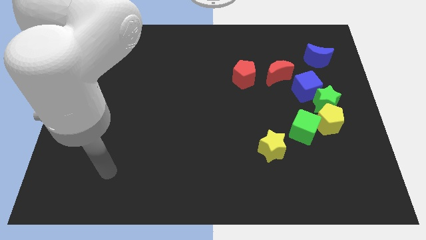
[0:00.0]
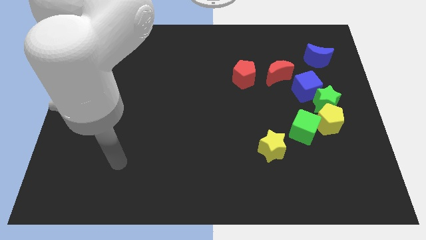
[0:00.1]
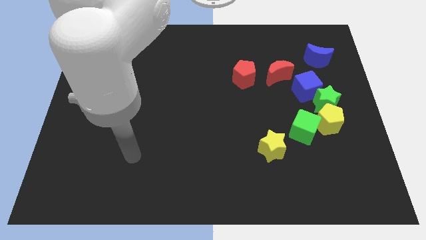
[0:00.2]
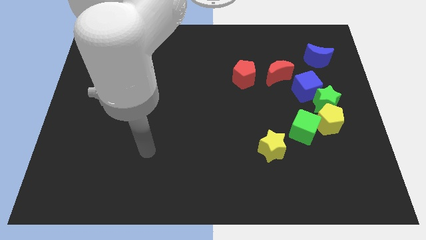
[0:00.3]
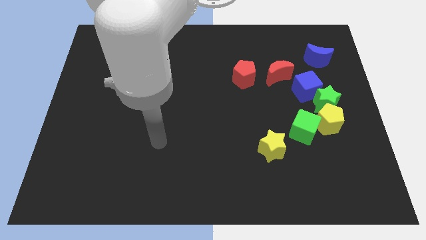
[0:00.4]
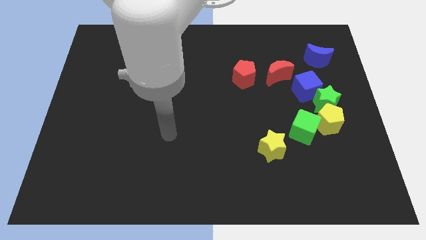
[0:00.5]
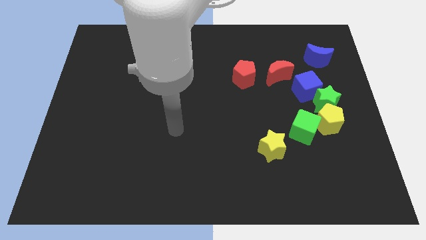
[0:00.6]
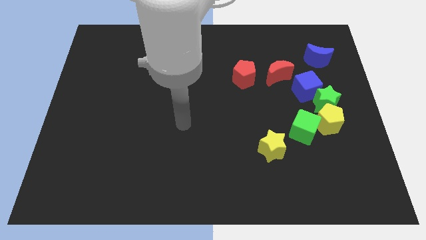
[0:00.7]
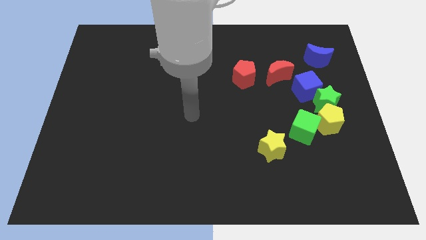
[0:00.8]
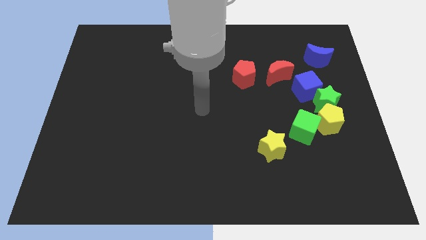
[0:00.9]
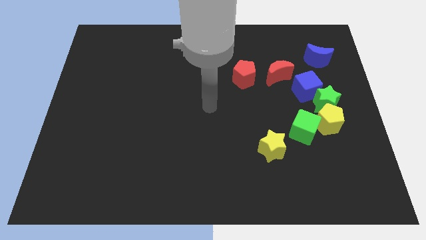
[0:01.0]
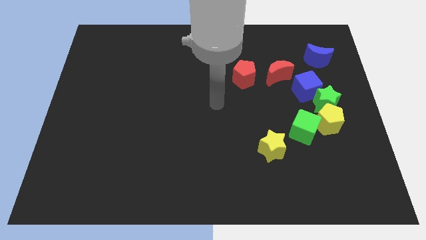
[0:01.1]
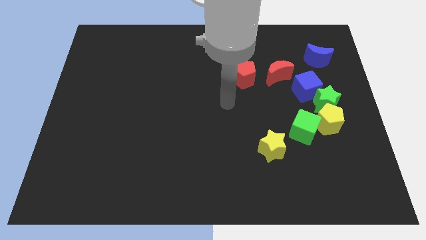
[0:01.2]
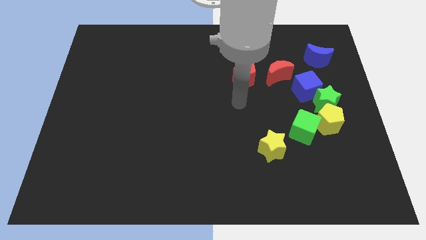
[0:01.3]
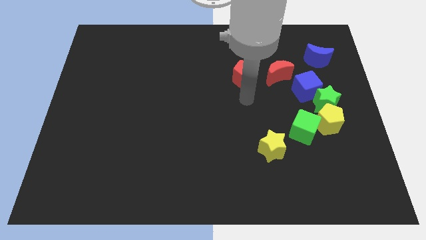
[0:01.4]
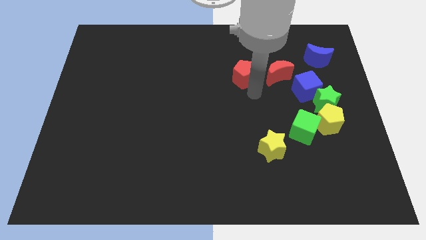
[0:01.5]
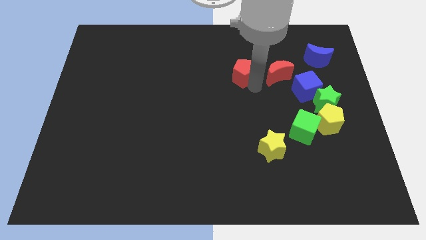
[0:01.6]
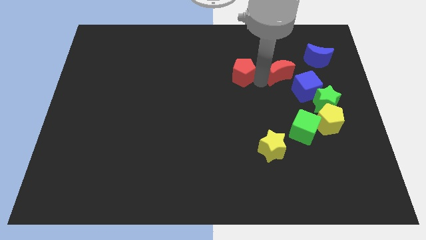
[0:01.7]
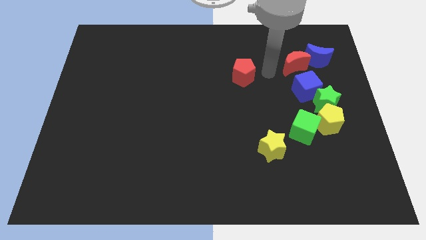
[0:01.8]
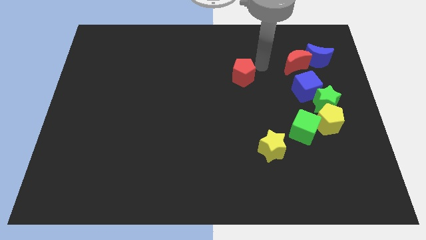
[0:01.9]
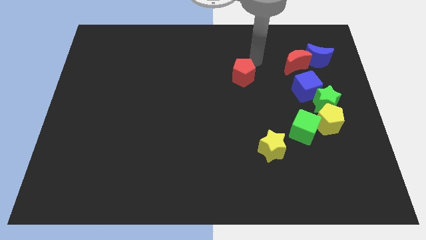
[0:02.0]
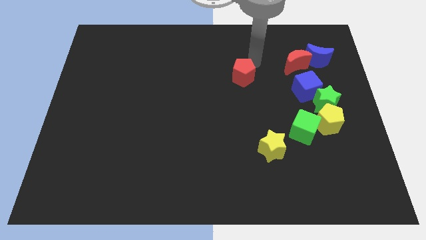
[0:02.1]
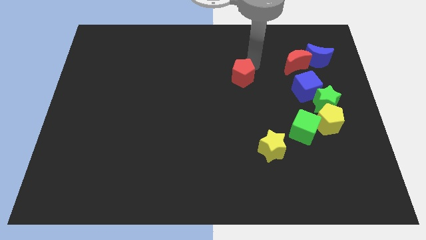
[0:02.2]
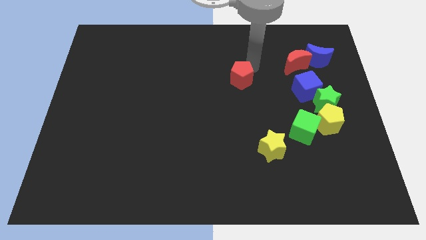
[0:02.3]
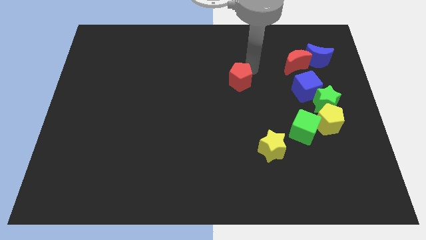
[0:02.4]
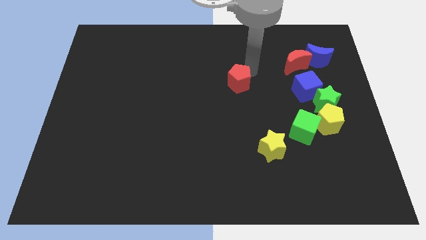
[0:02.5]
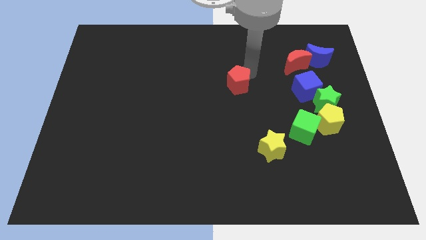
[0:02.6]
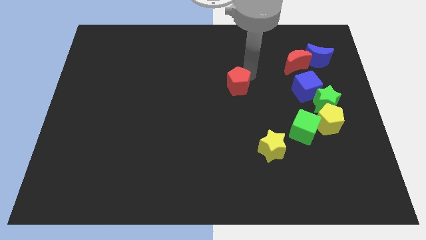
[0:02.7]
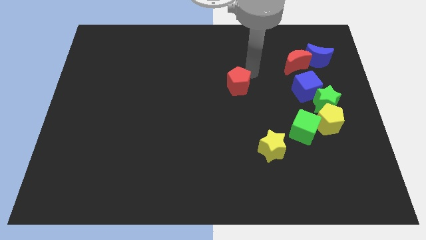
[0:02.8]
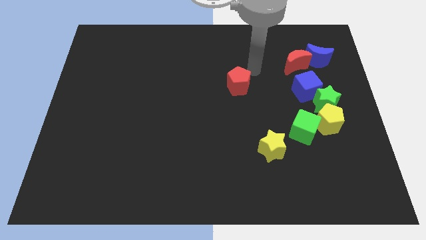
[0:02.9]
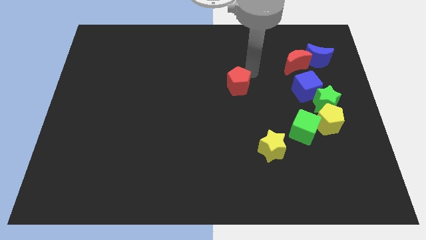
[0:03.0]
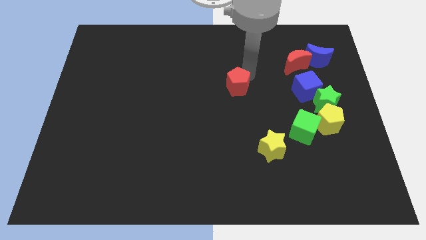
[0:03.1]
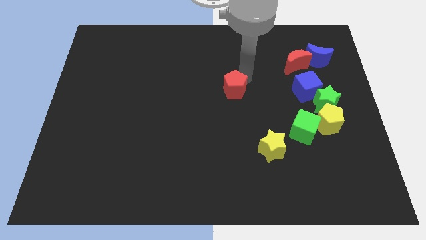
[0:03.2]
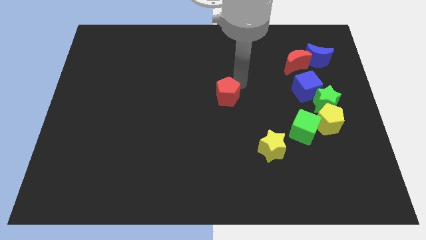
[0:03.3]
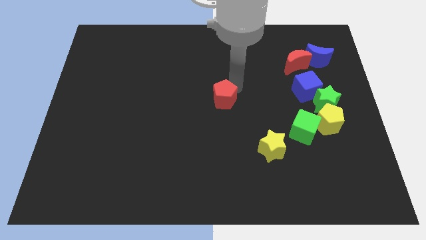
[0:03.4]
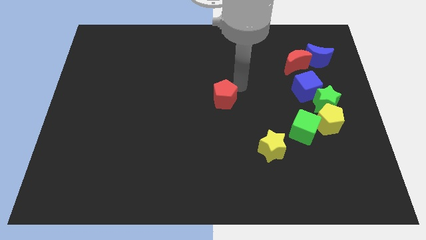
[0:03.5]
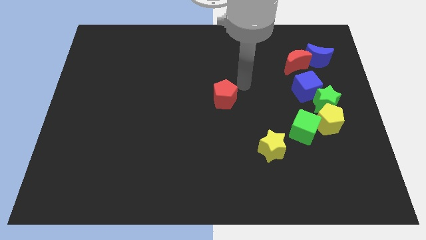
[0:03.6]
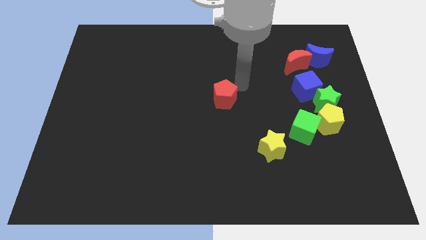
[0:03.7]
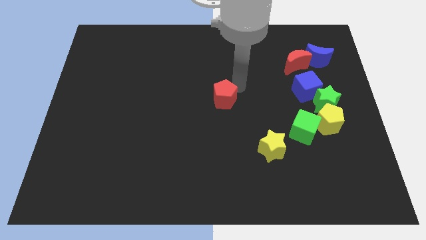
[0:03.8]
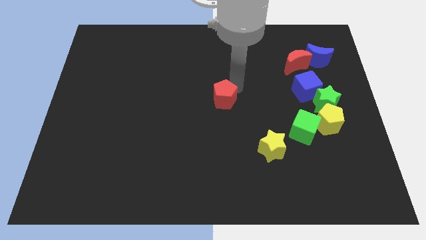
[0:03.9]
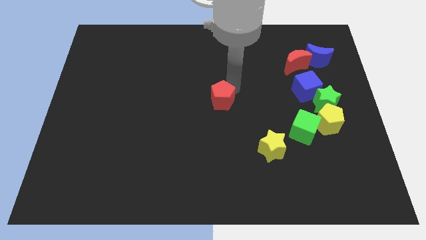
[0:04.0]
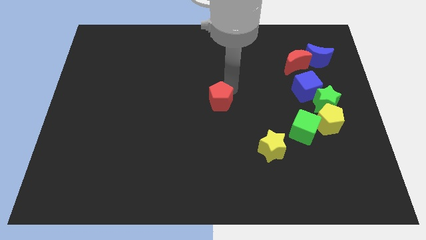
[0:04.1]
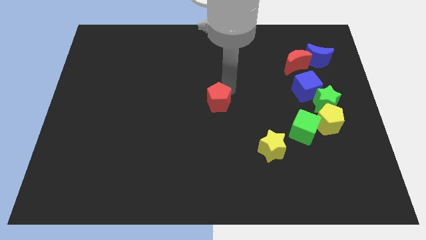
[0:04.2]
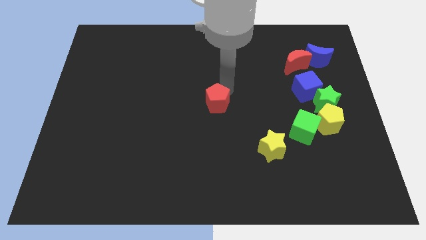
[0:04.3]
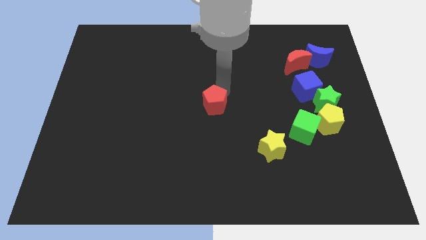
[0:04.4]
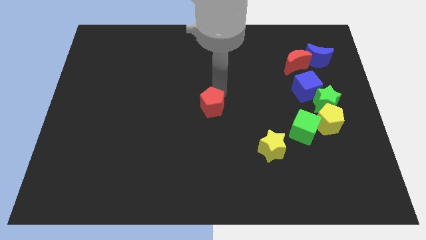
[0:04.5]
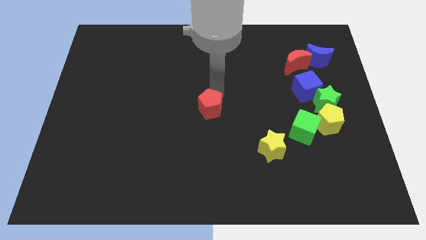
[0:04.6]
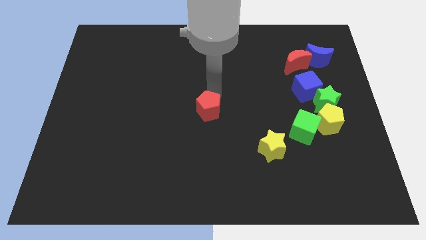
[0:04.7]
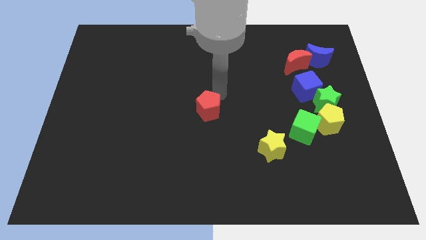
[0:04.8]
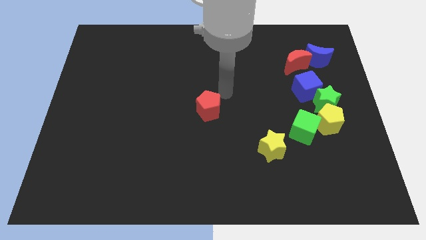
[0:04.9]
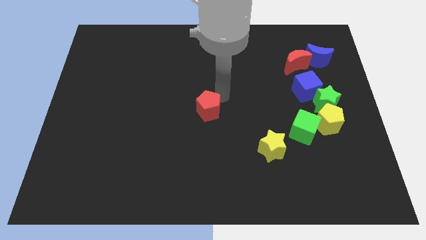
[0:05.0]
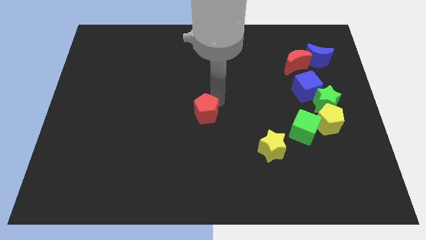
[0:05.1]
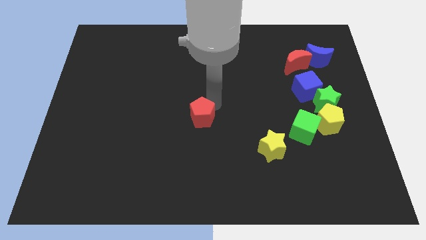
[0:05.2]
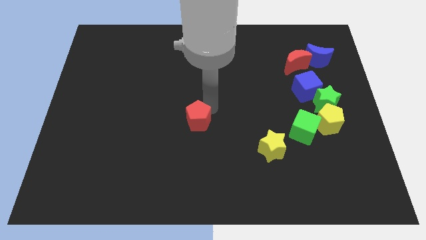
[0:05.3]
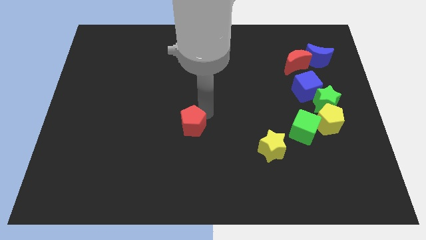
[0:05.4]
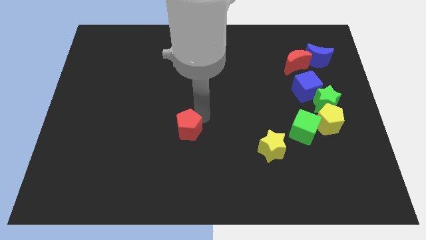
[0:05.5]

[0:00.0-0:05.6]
slide the red pentagon diagonally downwards and to the left

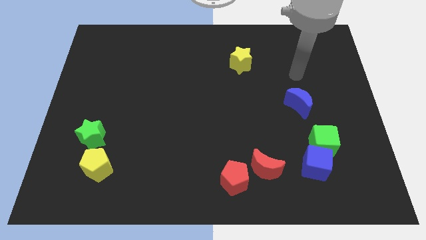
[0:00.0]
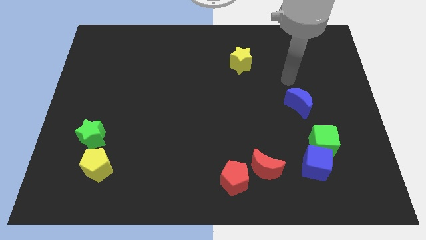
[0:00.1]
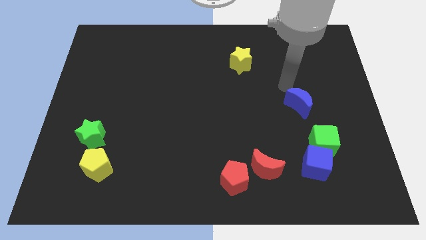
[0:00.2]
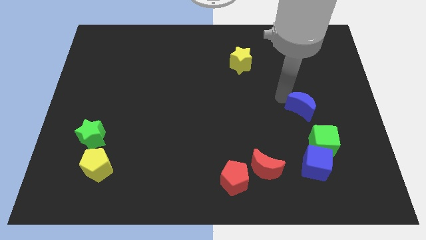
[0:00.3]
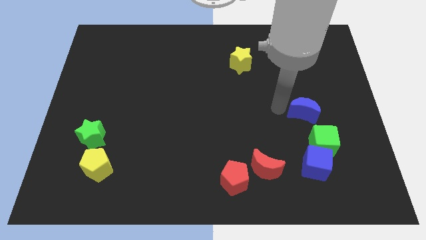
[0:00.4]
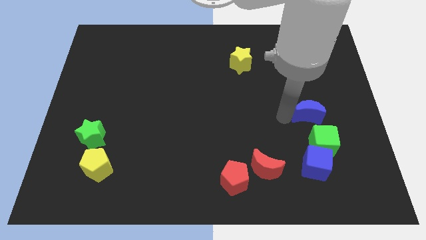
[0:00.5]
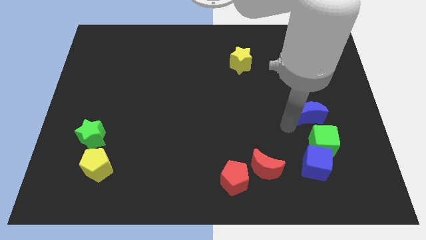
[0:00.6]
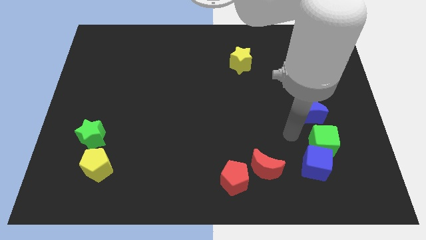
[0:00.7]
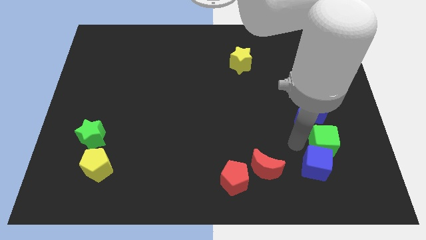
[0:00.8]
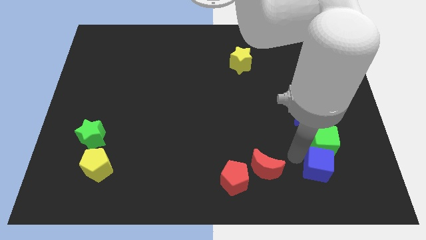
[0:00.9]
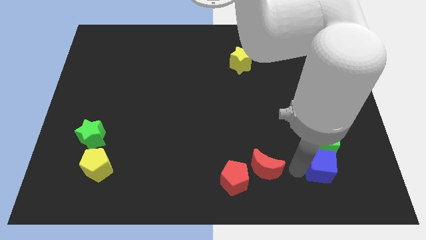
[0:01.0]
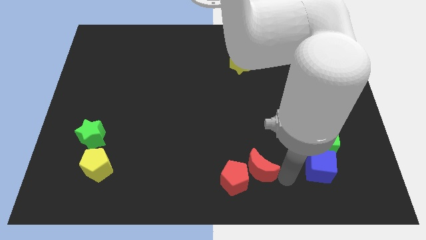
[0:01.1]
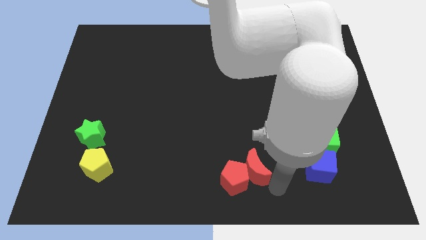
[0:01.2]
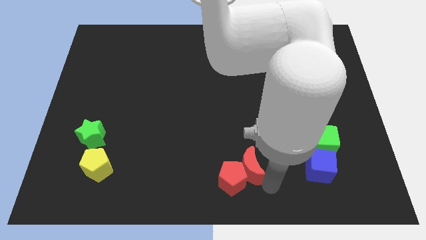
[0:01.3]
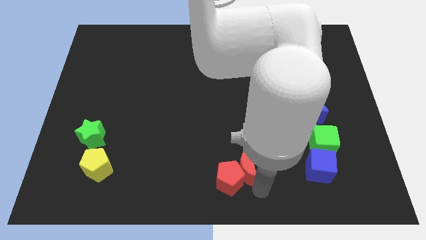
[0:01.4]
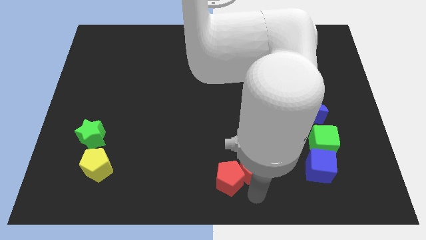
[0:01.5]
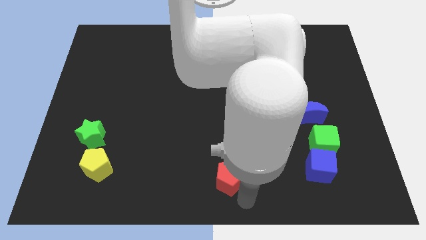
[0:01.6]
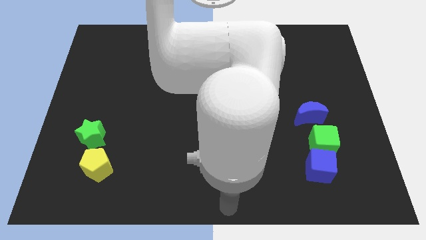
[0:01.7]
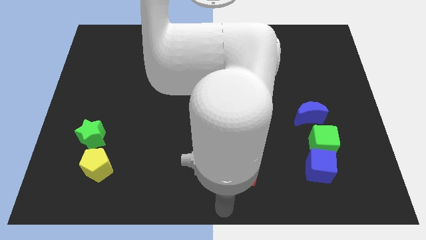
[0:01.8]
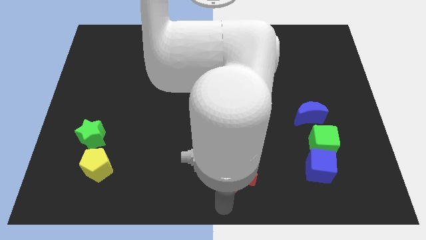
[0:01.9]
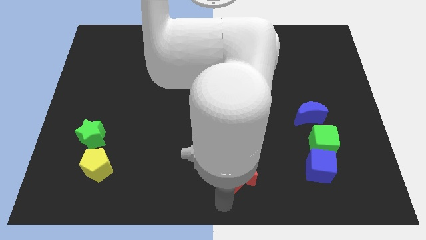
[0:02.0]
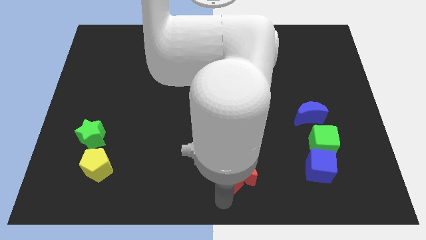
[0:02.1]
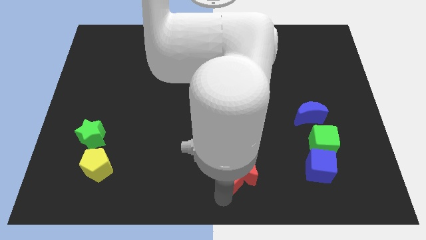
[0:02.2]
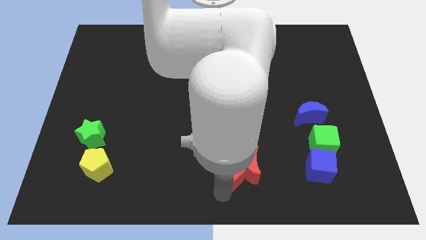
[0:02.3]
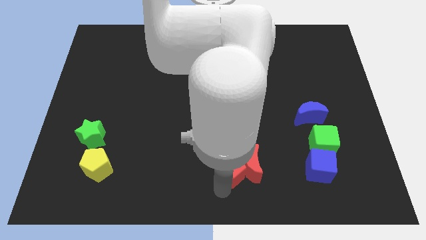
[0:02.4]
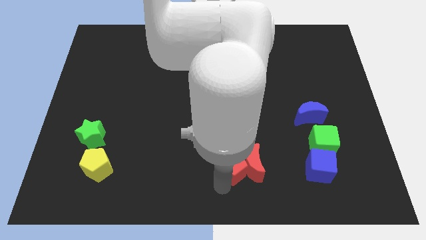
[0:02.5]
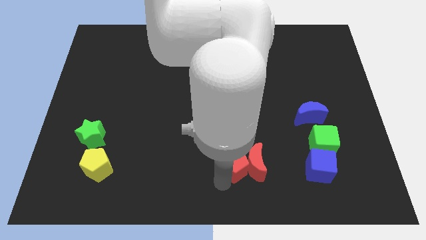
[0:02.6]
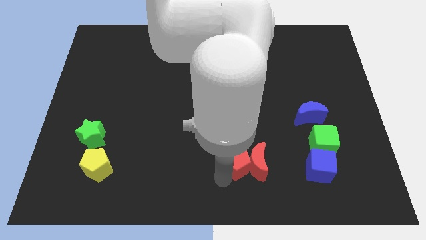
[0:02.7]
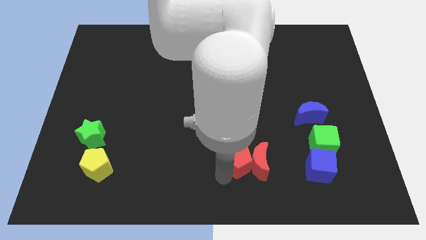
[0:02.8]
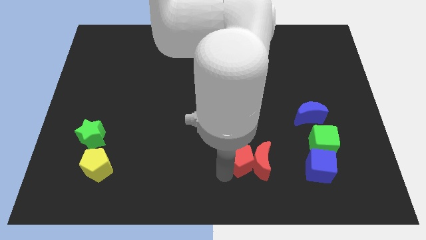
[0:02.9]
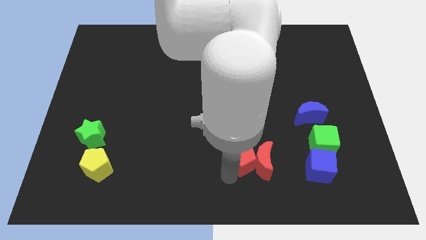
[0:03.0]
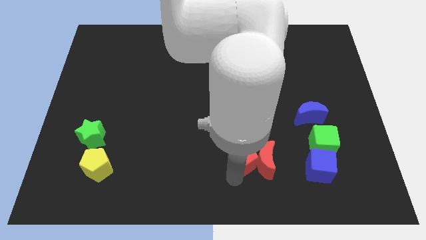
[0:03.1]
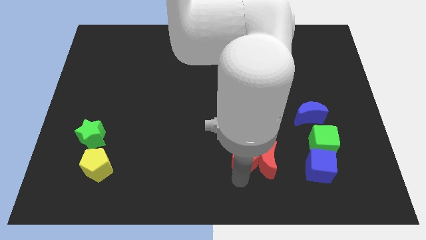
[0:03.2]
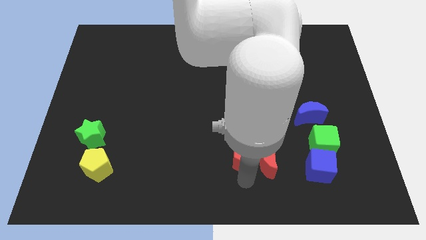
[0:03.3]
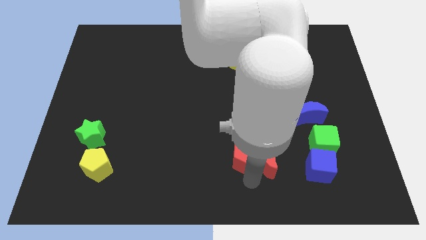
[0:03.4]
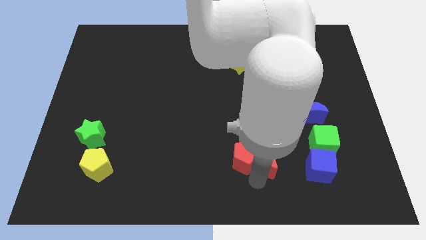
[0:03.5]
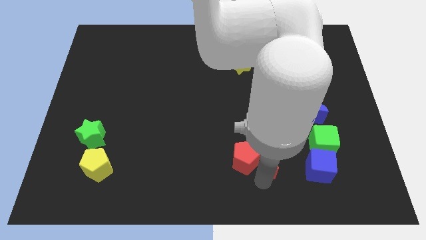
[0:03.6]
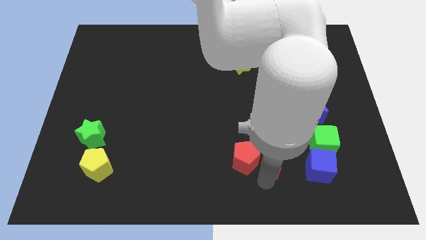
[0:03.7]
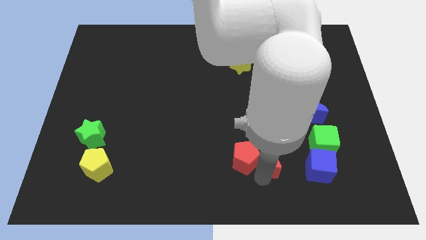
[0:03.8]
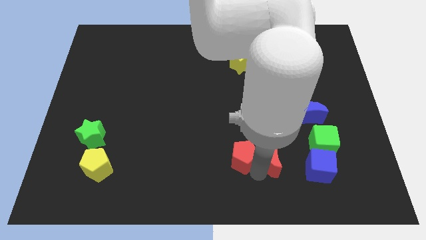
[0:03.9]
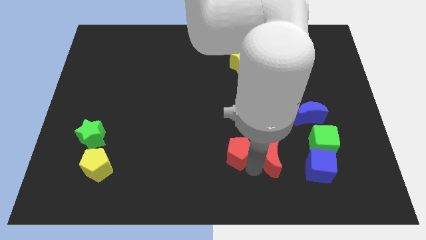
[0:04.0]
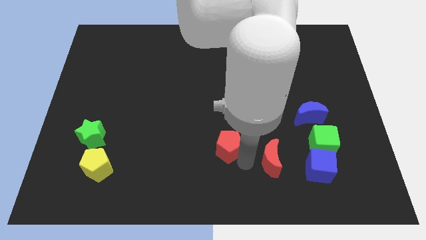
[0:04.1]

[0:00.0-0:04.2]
slide the red pentagon upwards a little
